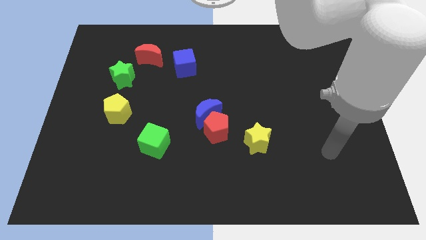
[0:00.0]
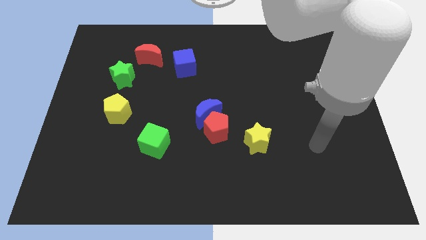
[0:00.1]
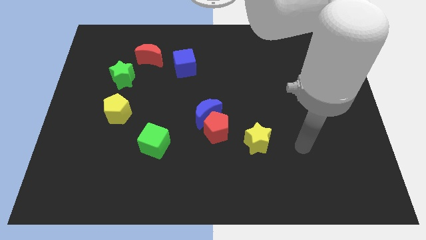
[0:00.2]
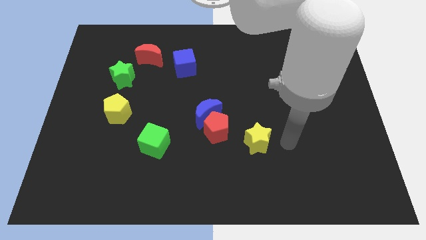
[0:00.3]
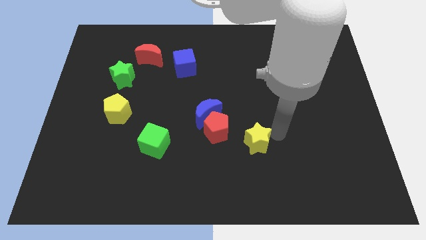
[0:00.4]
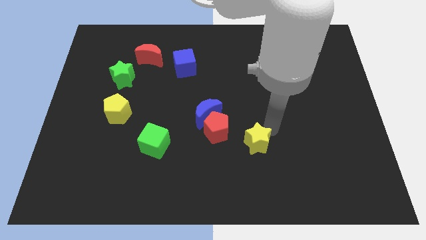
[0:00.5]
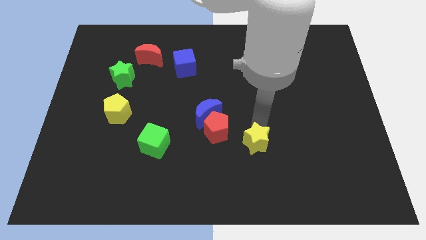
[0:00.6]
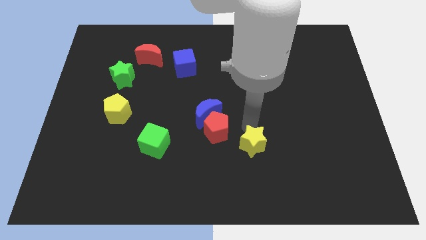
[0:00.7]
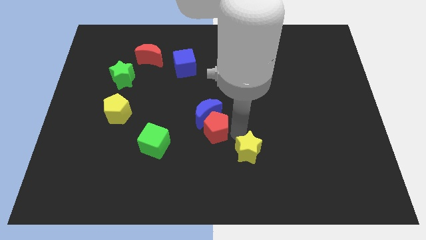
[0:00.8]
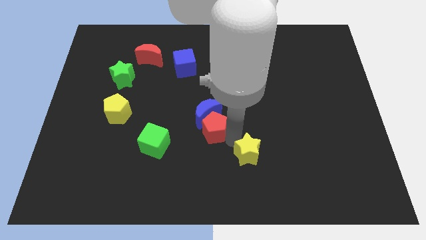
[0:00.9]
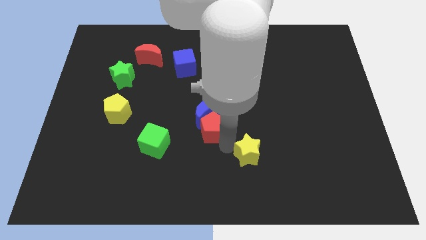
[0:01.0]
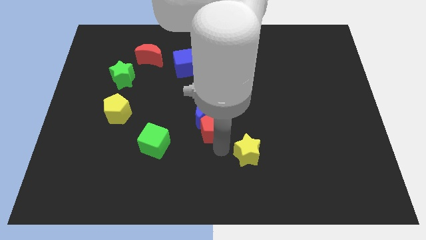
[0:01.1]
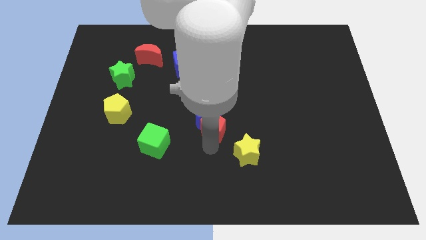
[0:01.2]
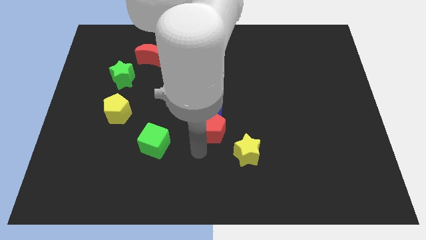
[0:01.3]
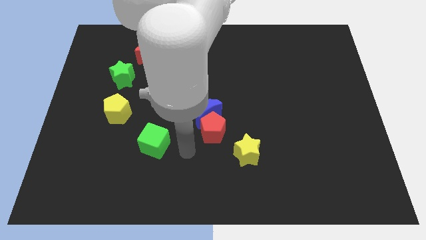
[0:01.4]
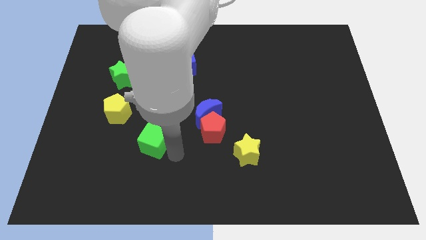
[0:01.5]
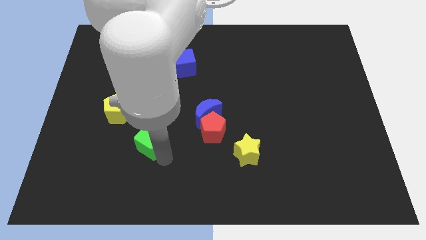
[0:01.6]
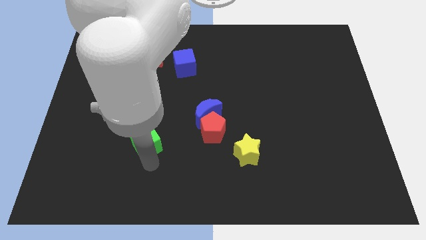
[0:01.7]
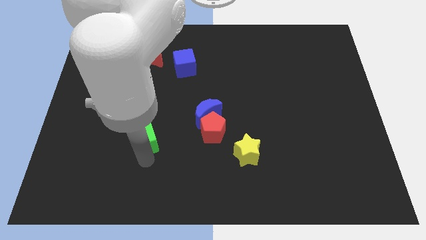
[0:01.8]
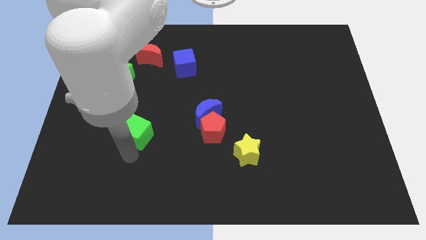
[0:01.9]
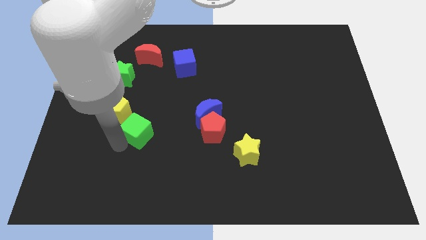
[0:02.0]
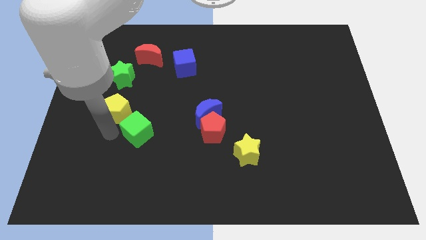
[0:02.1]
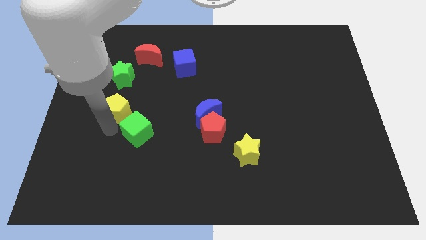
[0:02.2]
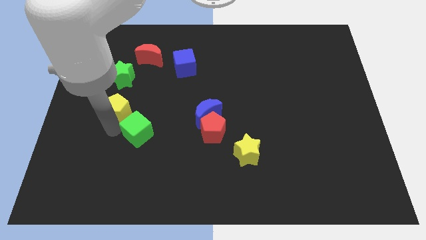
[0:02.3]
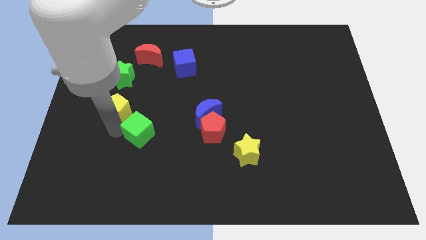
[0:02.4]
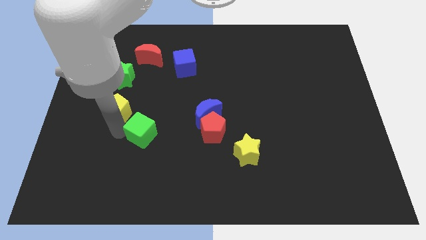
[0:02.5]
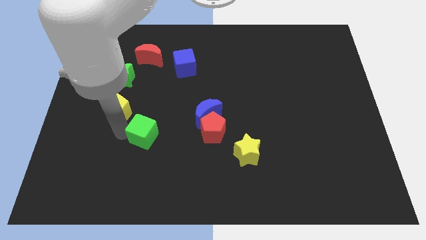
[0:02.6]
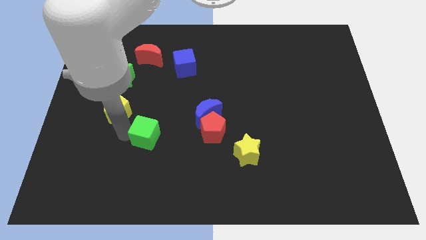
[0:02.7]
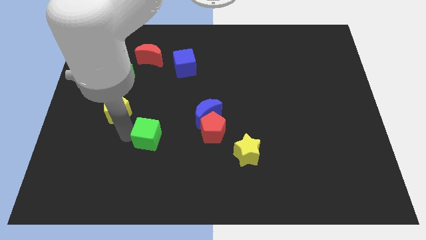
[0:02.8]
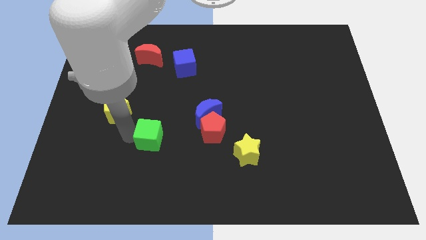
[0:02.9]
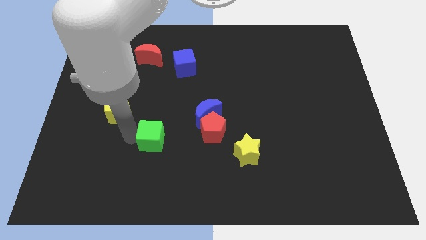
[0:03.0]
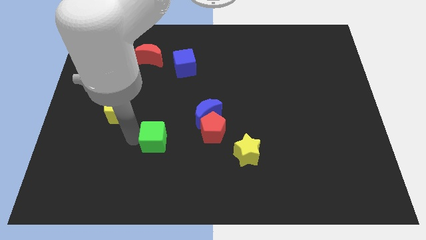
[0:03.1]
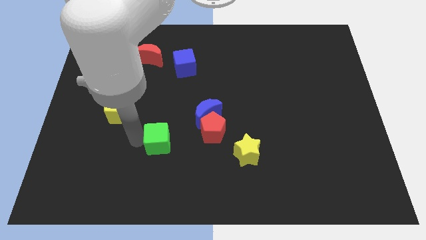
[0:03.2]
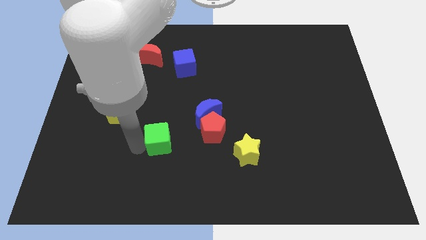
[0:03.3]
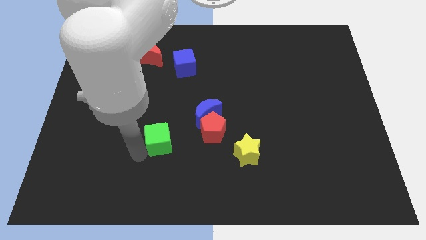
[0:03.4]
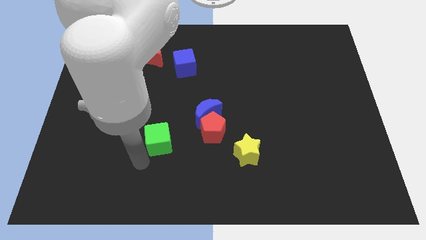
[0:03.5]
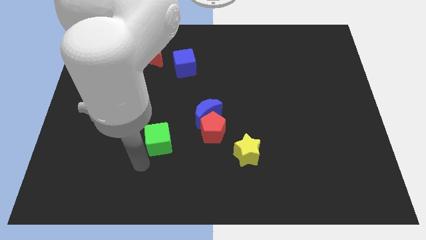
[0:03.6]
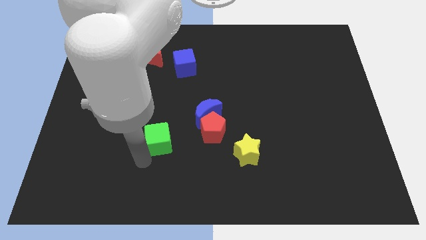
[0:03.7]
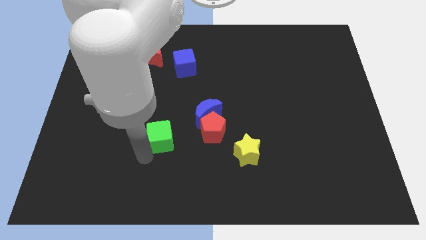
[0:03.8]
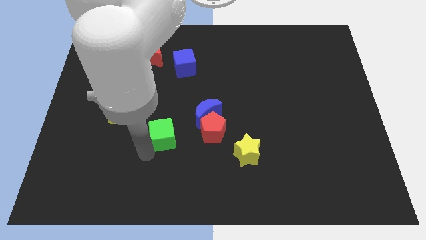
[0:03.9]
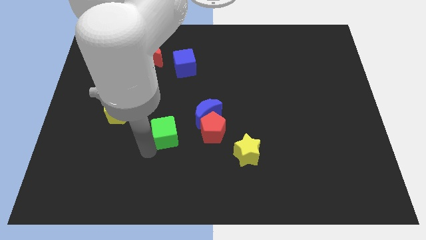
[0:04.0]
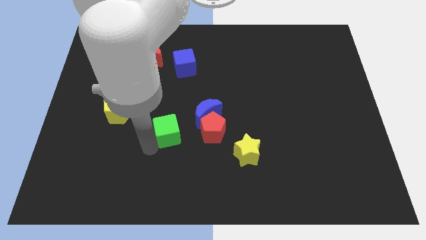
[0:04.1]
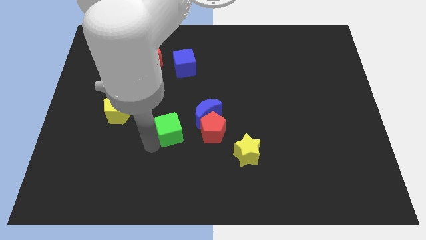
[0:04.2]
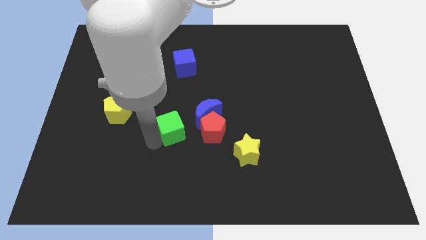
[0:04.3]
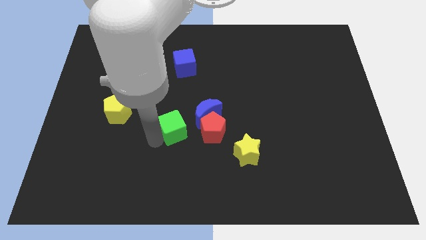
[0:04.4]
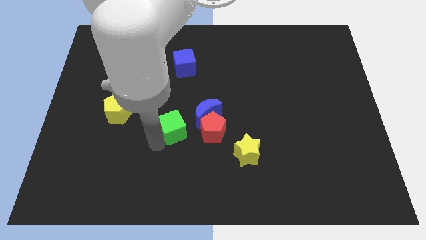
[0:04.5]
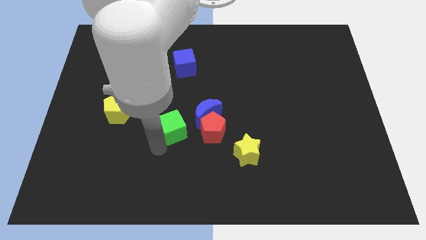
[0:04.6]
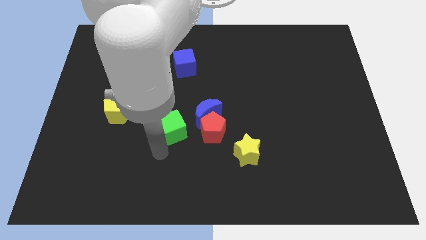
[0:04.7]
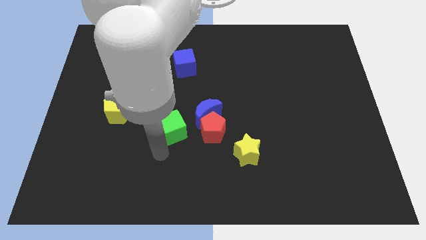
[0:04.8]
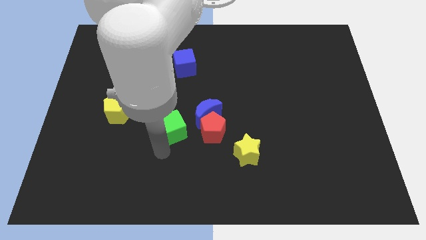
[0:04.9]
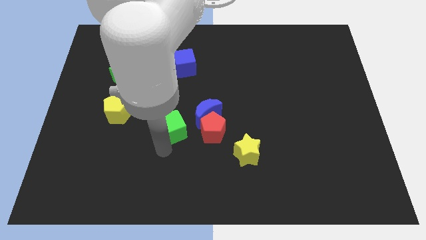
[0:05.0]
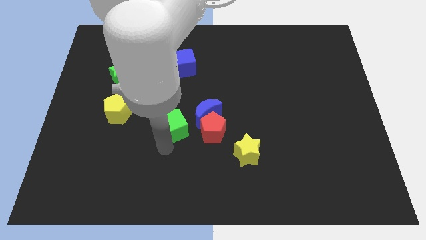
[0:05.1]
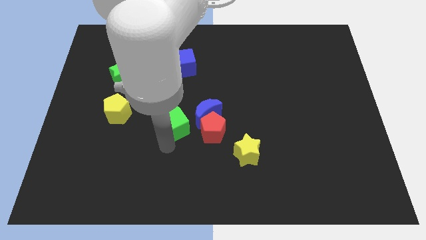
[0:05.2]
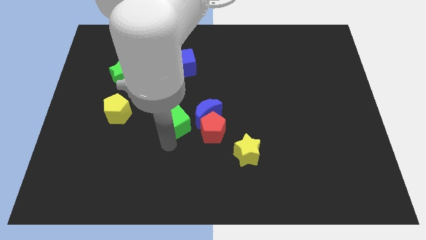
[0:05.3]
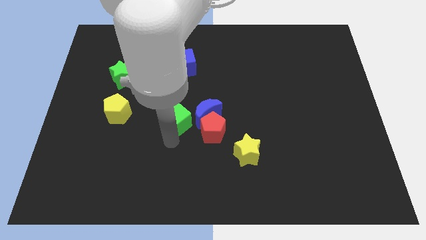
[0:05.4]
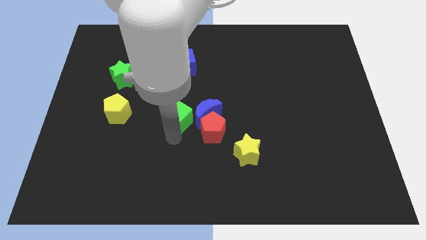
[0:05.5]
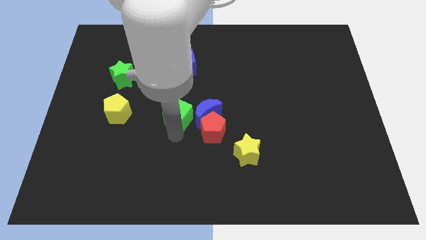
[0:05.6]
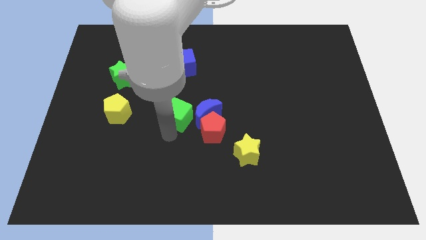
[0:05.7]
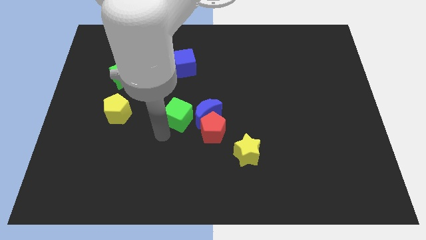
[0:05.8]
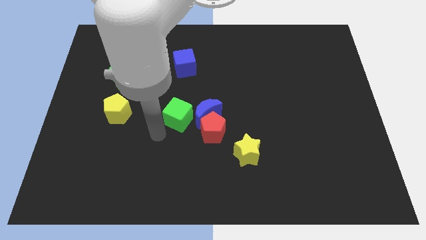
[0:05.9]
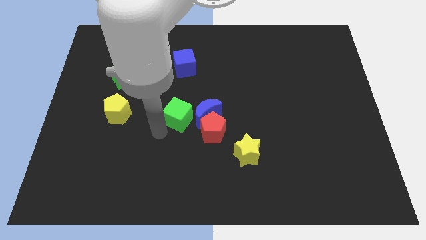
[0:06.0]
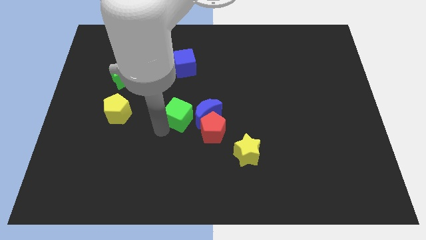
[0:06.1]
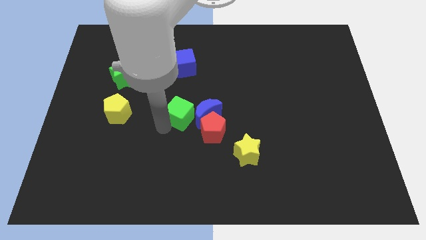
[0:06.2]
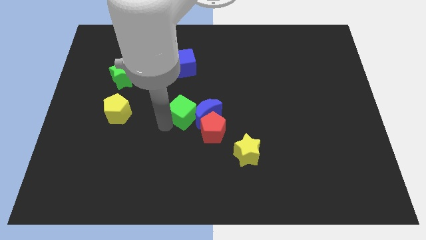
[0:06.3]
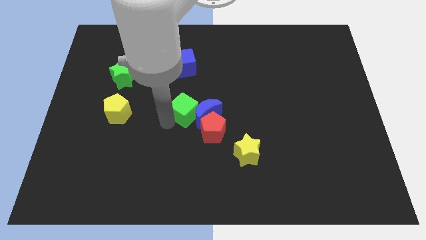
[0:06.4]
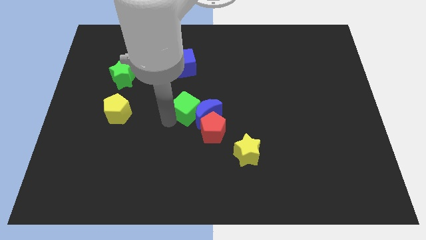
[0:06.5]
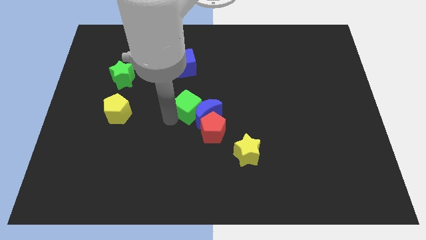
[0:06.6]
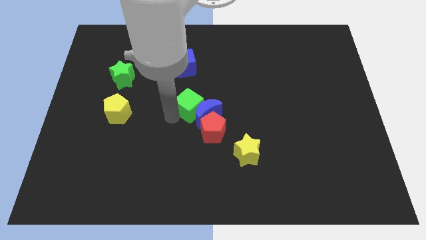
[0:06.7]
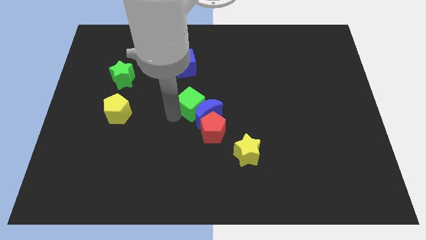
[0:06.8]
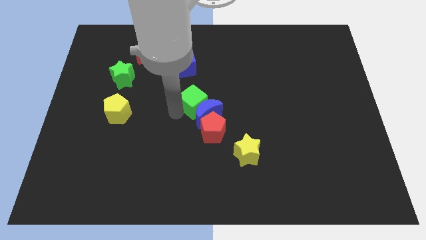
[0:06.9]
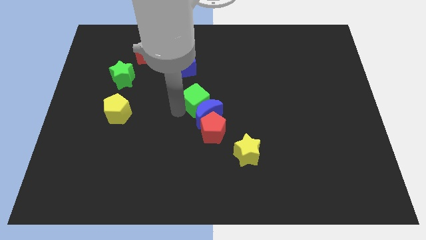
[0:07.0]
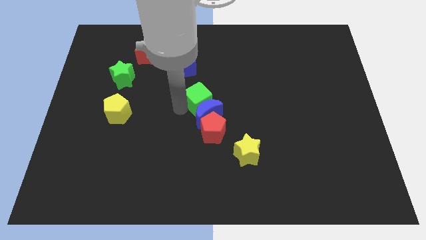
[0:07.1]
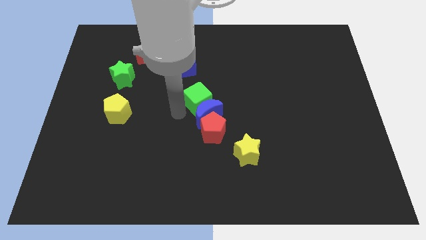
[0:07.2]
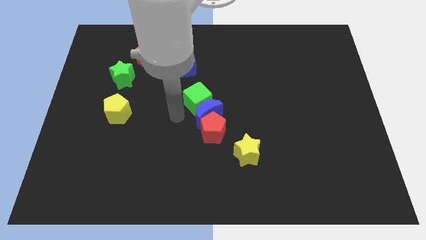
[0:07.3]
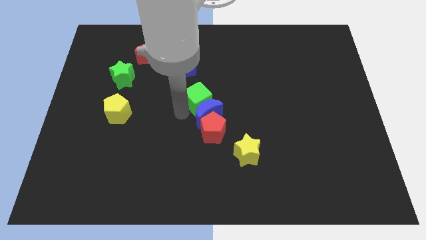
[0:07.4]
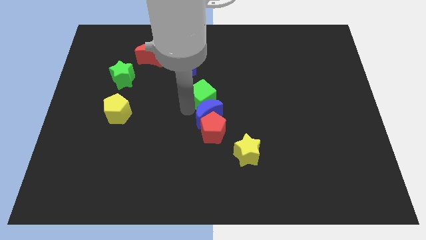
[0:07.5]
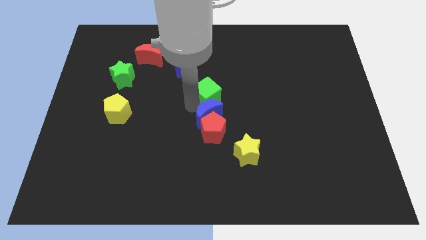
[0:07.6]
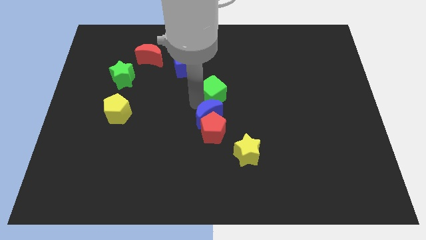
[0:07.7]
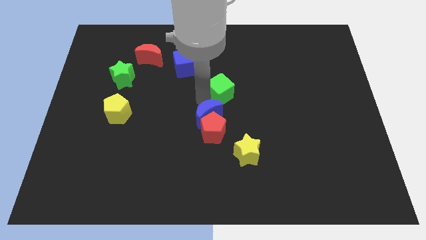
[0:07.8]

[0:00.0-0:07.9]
slide the green cube diagonally upwards and to the right
